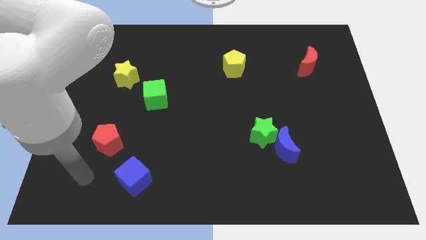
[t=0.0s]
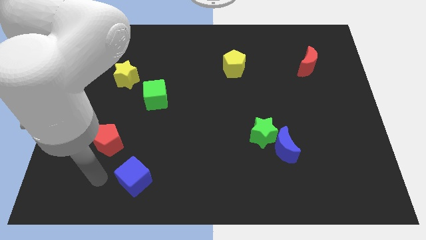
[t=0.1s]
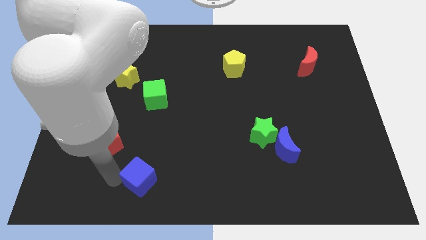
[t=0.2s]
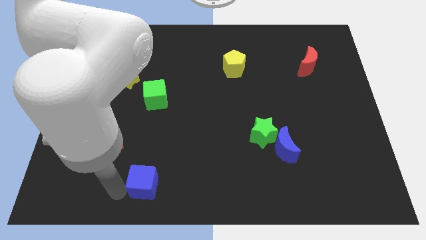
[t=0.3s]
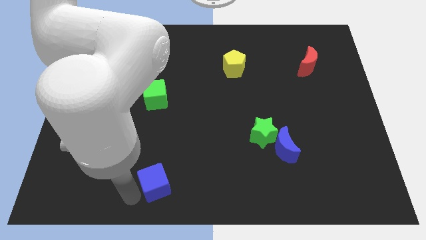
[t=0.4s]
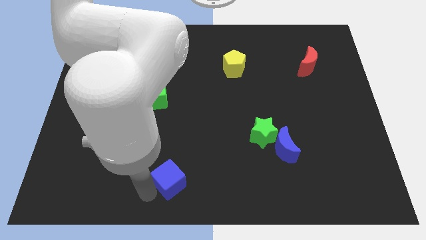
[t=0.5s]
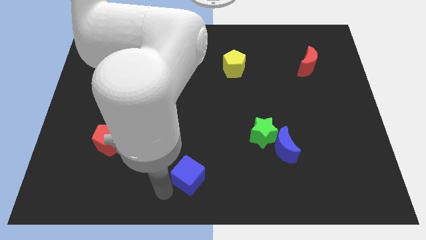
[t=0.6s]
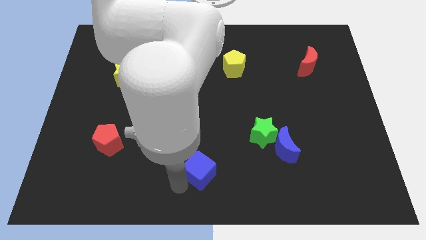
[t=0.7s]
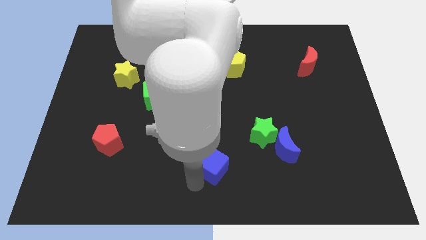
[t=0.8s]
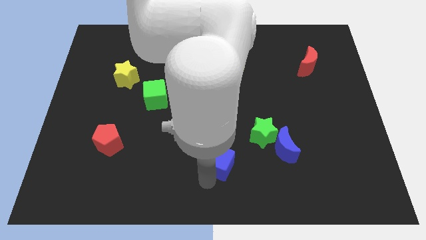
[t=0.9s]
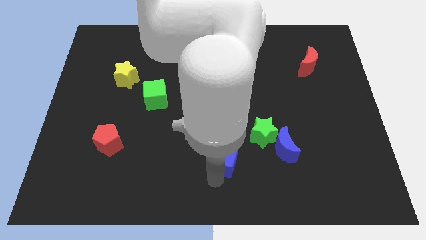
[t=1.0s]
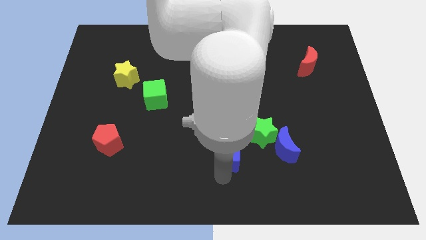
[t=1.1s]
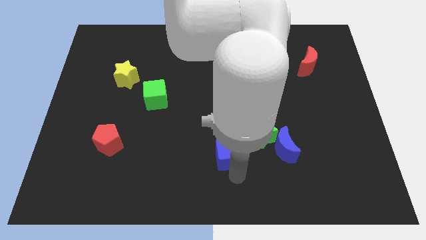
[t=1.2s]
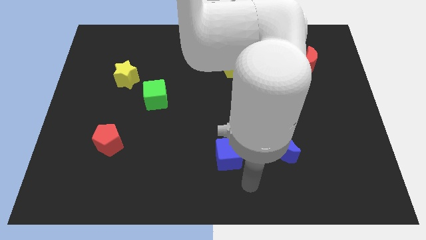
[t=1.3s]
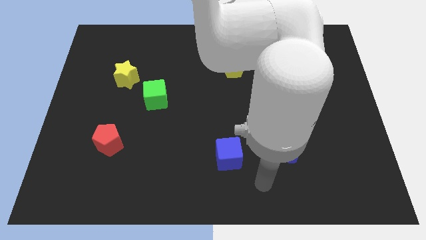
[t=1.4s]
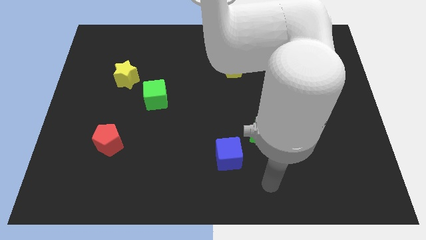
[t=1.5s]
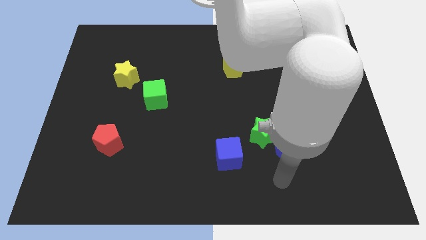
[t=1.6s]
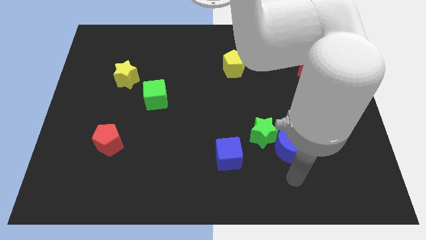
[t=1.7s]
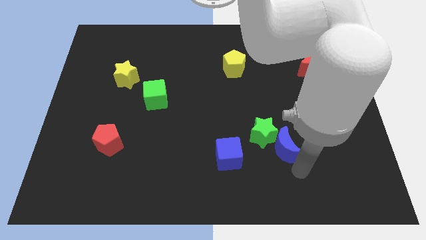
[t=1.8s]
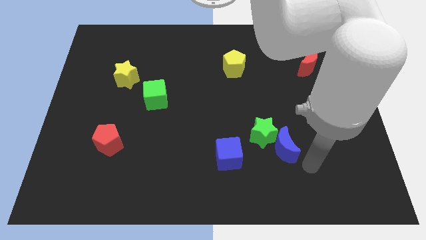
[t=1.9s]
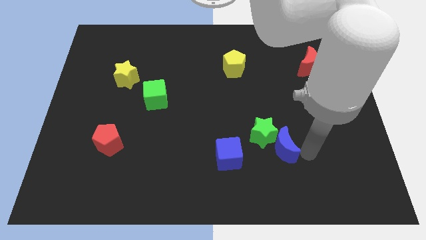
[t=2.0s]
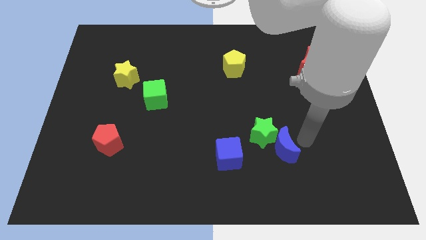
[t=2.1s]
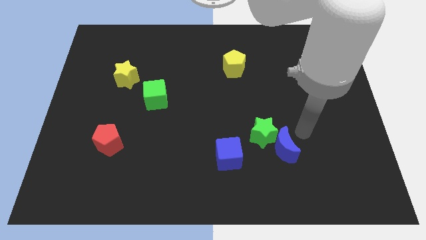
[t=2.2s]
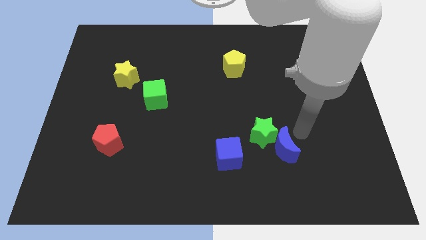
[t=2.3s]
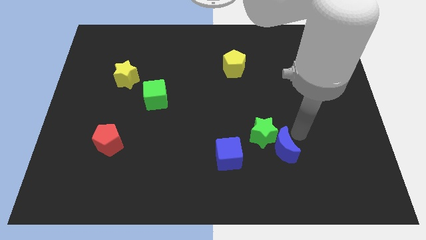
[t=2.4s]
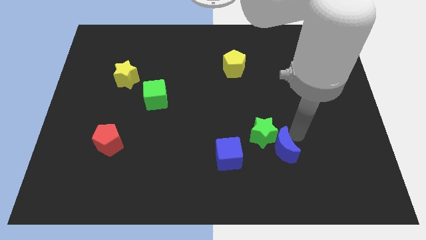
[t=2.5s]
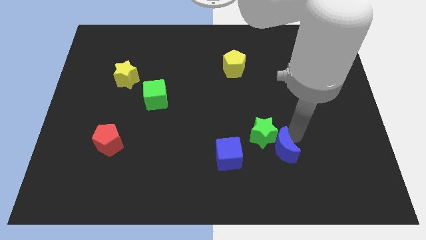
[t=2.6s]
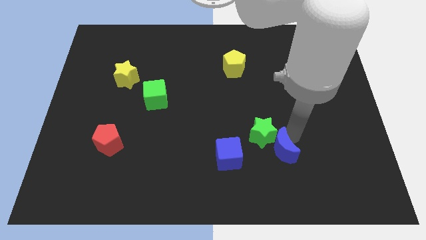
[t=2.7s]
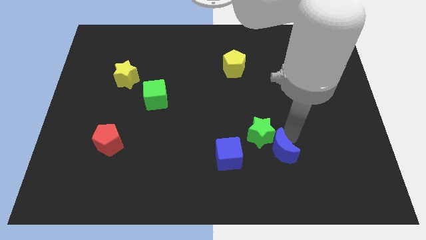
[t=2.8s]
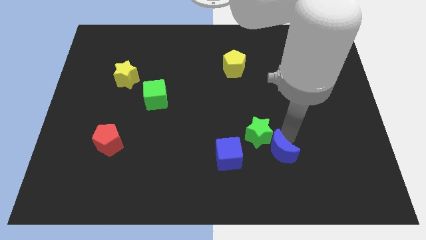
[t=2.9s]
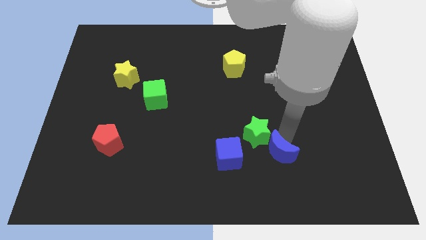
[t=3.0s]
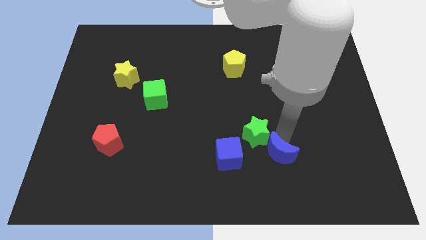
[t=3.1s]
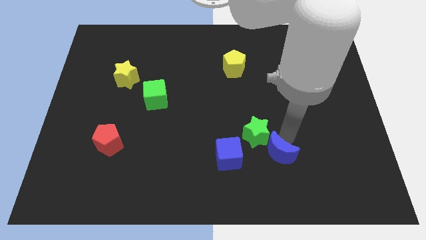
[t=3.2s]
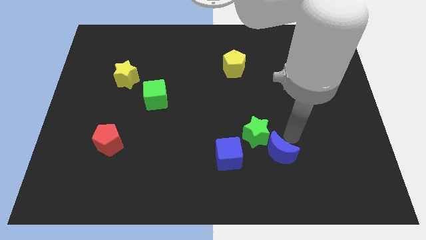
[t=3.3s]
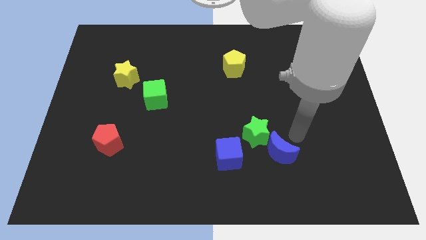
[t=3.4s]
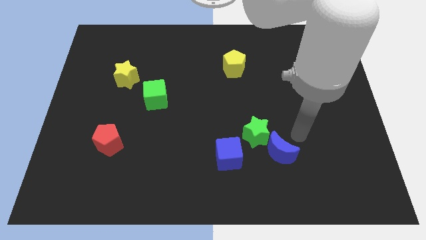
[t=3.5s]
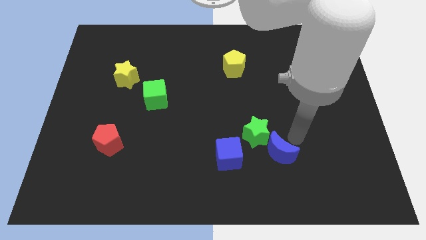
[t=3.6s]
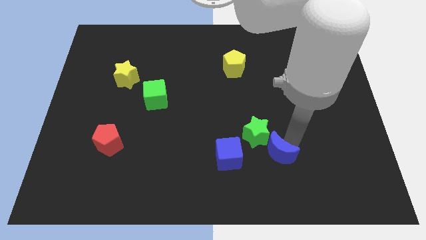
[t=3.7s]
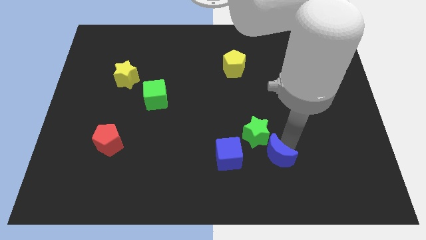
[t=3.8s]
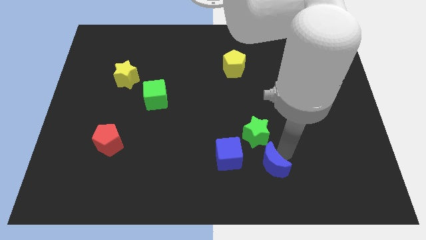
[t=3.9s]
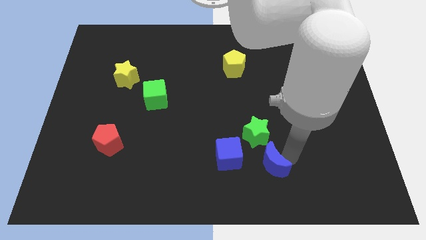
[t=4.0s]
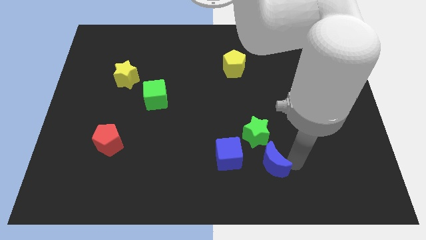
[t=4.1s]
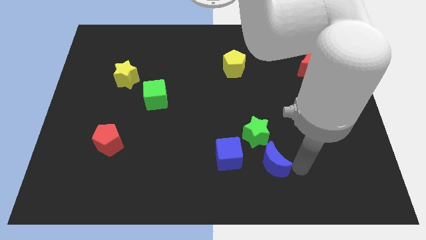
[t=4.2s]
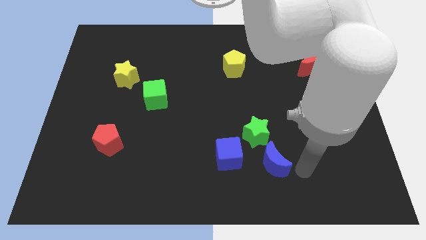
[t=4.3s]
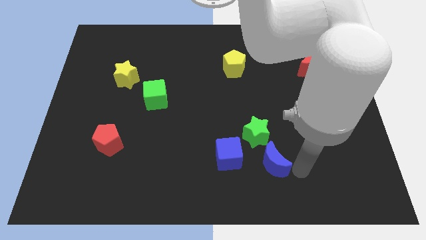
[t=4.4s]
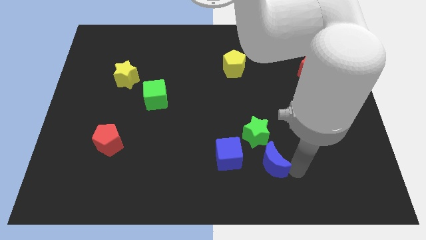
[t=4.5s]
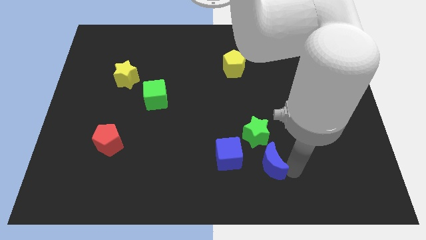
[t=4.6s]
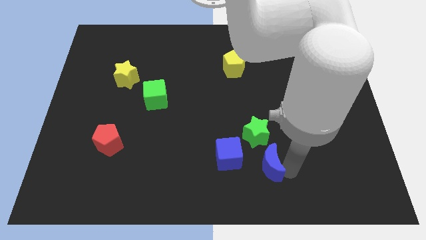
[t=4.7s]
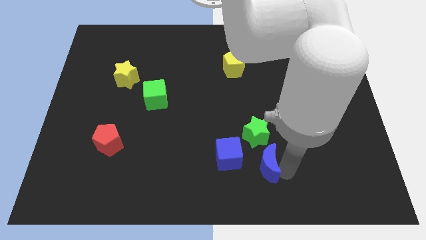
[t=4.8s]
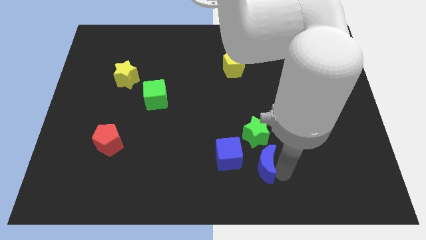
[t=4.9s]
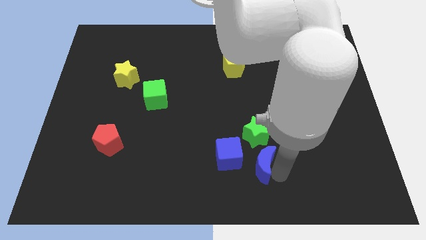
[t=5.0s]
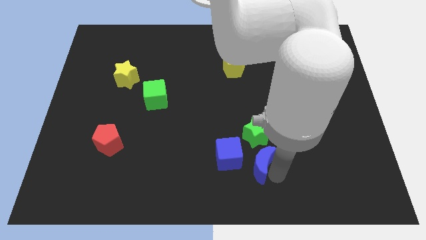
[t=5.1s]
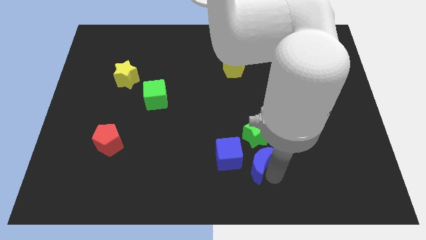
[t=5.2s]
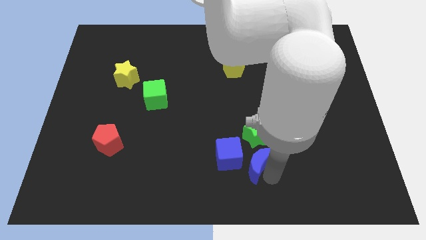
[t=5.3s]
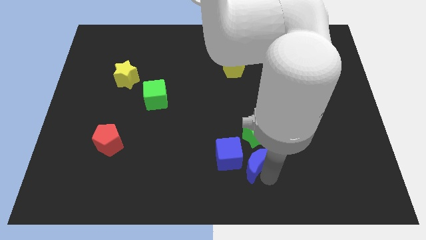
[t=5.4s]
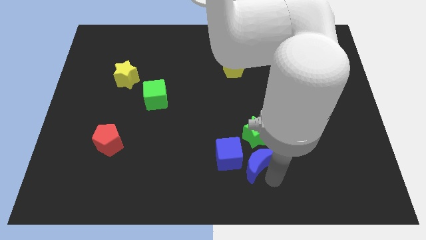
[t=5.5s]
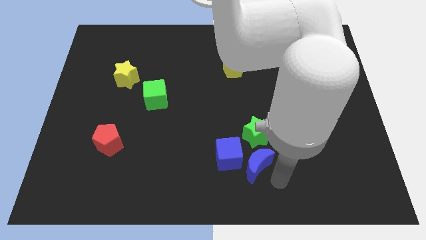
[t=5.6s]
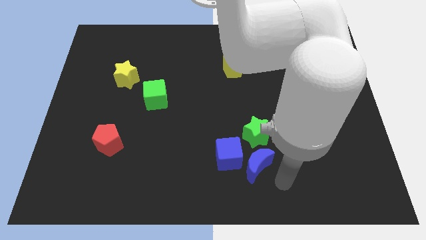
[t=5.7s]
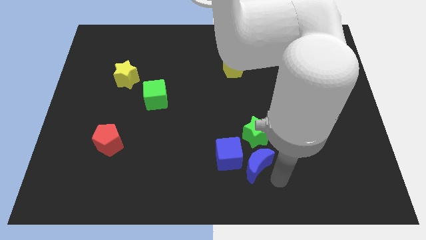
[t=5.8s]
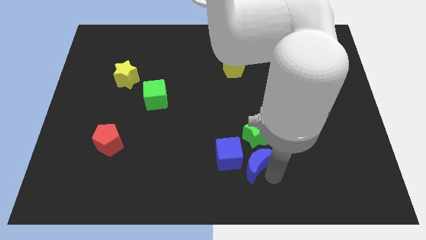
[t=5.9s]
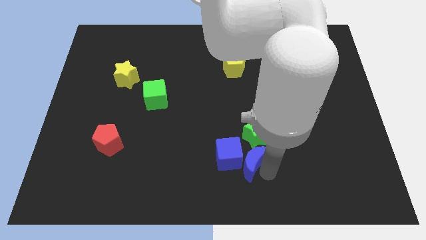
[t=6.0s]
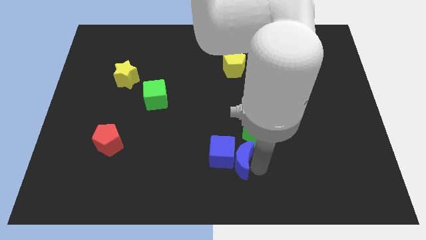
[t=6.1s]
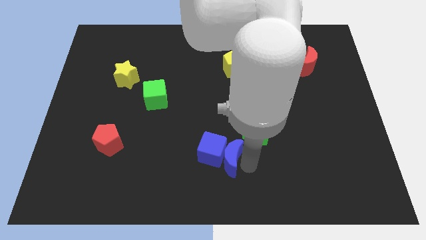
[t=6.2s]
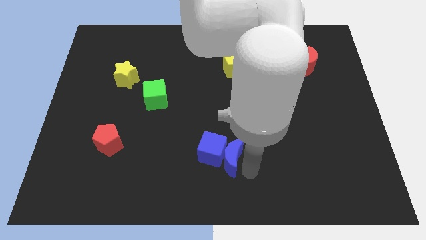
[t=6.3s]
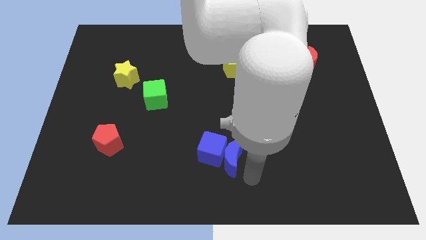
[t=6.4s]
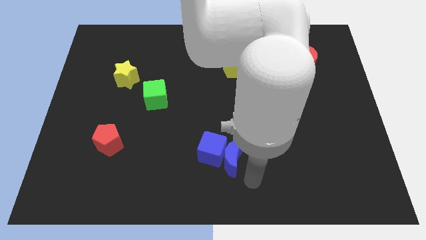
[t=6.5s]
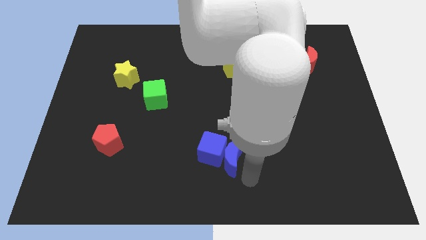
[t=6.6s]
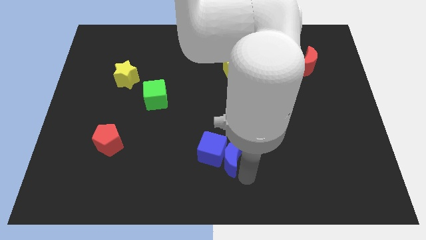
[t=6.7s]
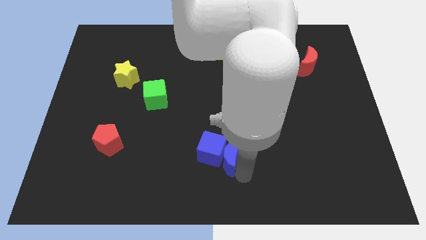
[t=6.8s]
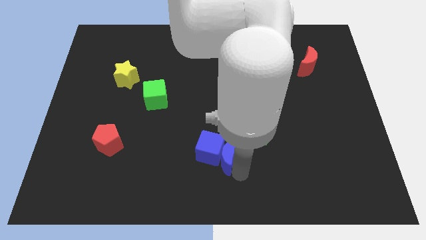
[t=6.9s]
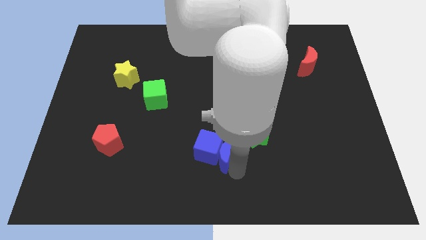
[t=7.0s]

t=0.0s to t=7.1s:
move the blue moon left of the green star

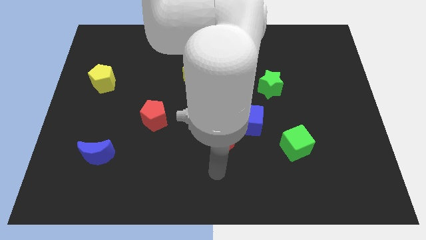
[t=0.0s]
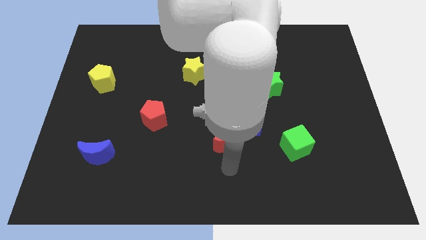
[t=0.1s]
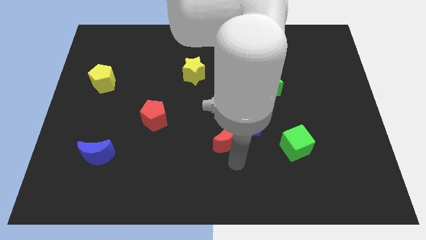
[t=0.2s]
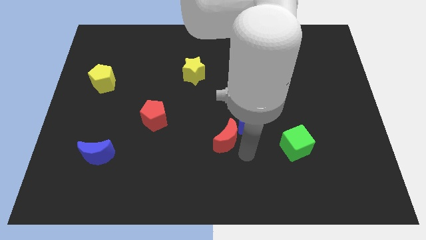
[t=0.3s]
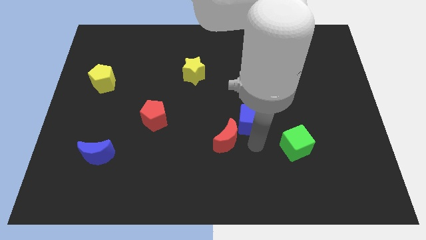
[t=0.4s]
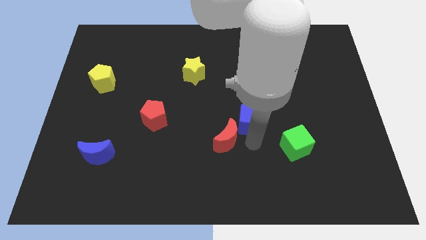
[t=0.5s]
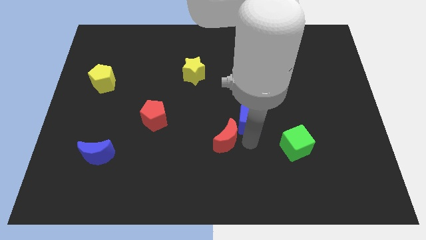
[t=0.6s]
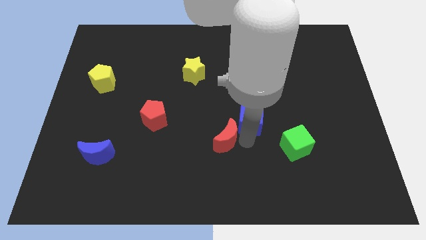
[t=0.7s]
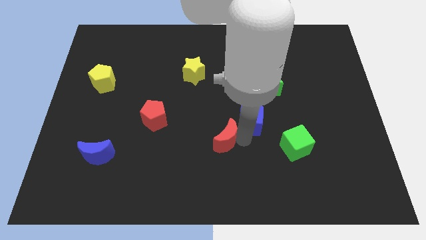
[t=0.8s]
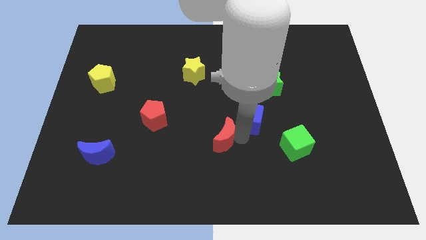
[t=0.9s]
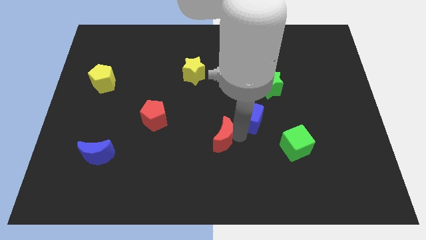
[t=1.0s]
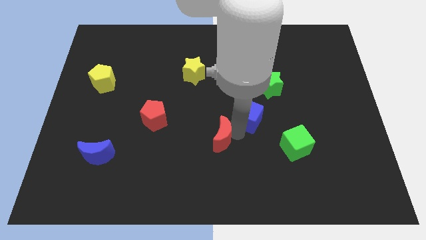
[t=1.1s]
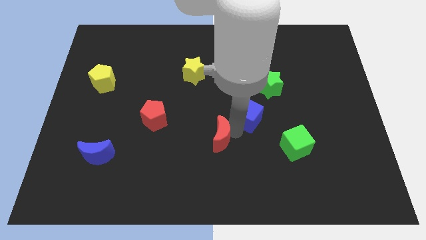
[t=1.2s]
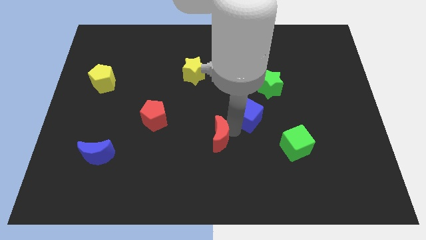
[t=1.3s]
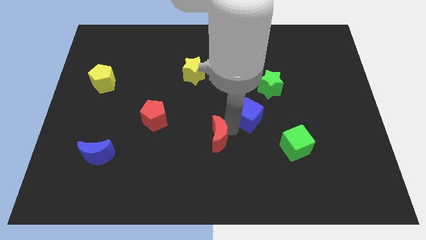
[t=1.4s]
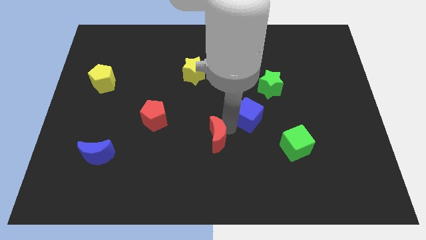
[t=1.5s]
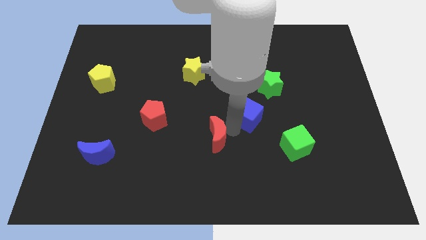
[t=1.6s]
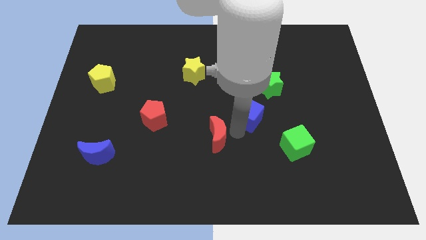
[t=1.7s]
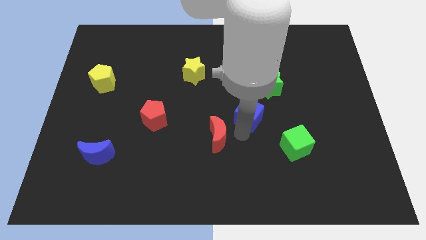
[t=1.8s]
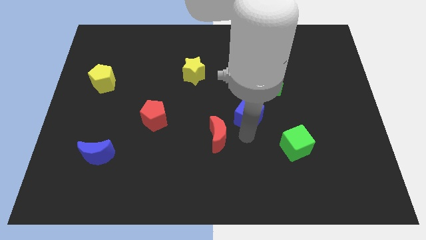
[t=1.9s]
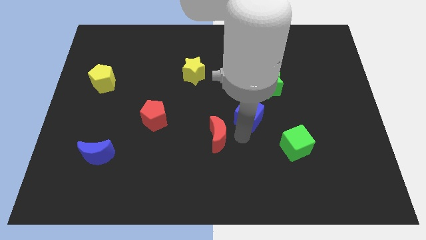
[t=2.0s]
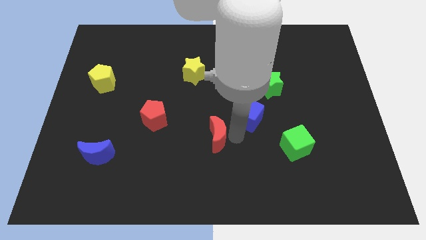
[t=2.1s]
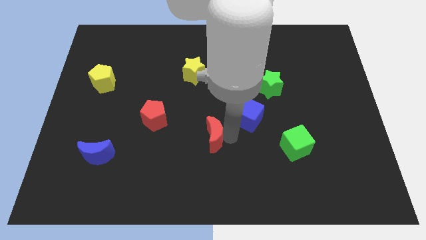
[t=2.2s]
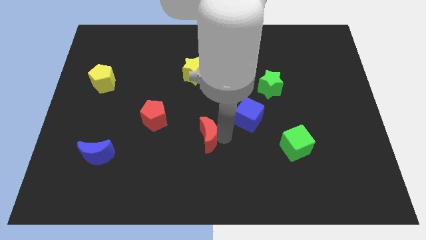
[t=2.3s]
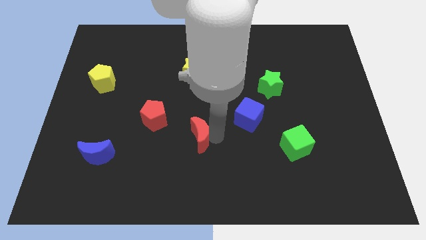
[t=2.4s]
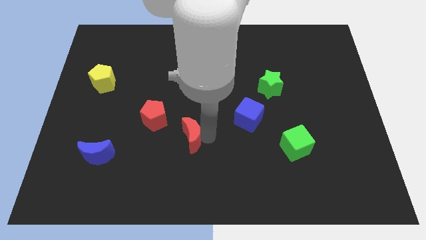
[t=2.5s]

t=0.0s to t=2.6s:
move the red moon to the bottom right side of the red pentagon
